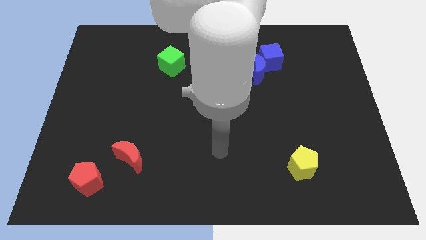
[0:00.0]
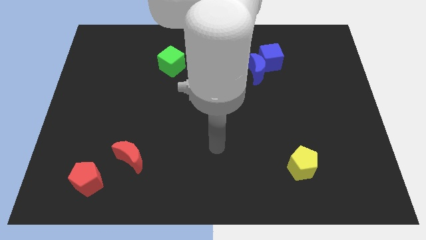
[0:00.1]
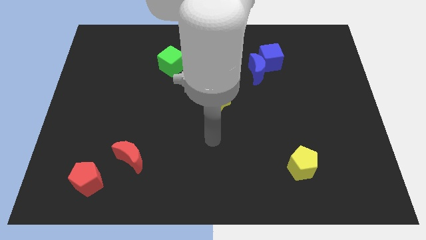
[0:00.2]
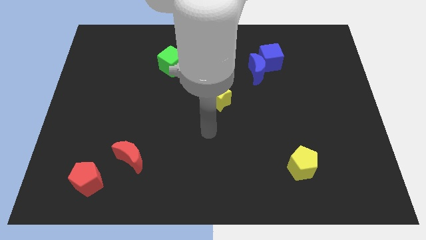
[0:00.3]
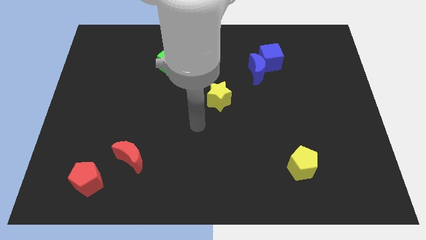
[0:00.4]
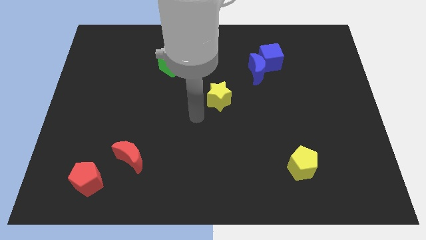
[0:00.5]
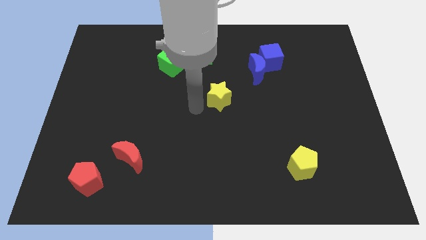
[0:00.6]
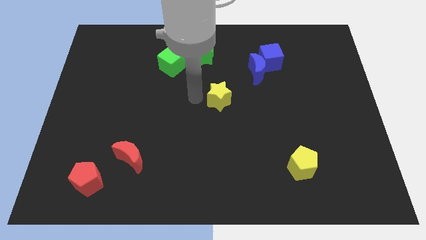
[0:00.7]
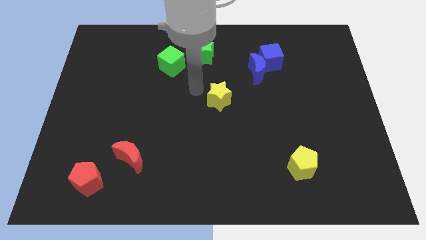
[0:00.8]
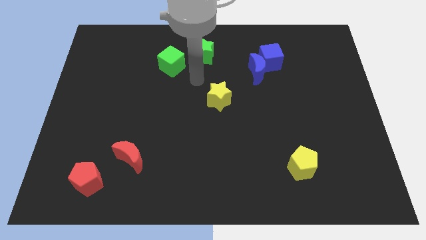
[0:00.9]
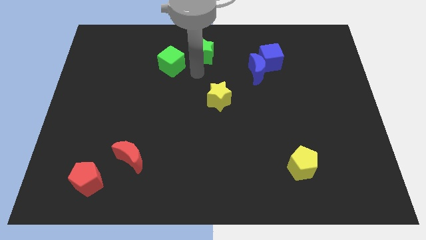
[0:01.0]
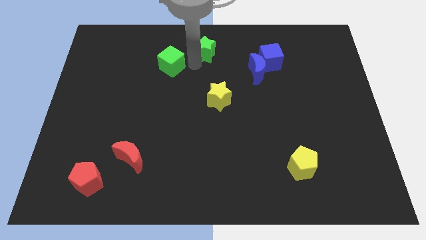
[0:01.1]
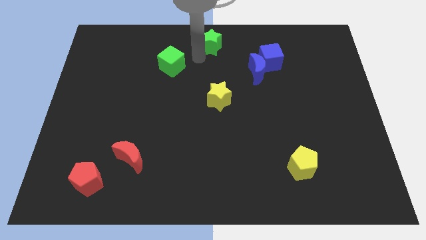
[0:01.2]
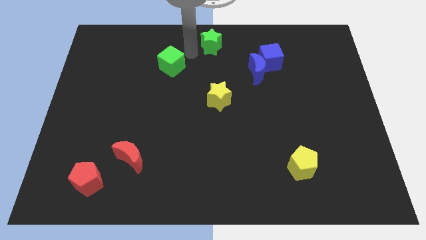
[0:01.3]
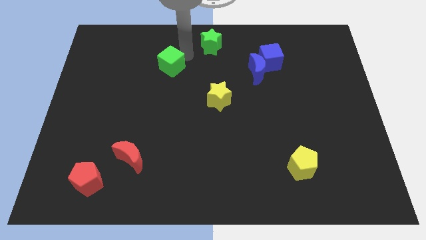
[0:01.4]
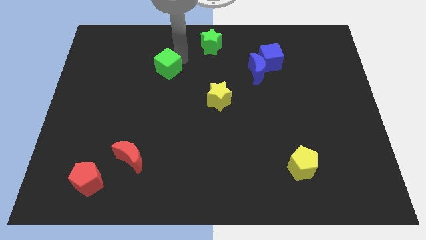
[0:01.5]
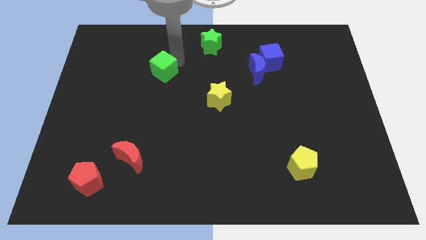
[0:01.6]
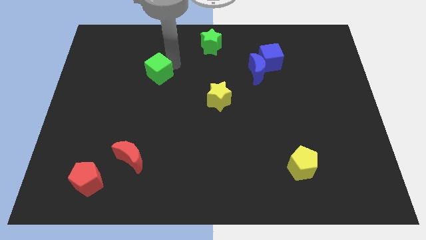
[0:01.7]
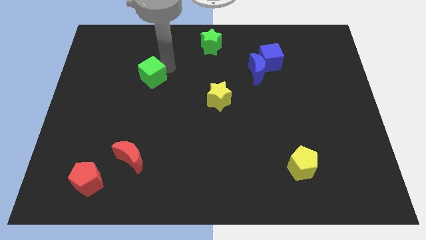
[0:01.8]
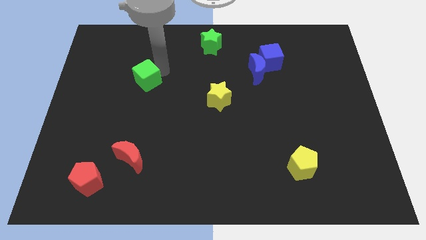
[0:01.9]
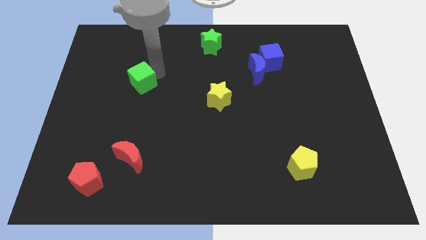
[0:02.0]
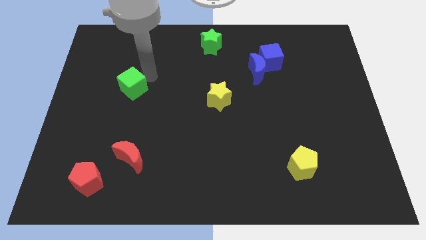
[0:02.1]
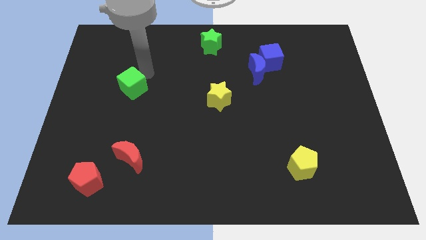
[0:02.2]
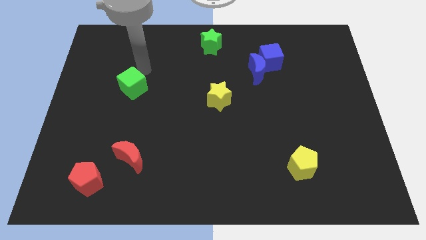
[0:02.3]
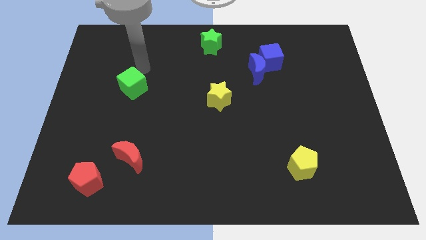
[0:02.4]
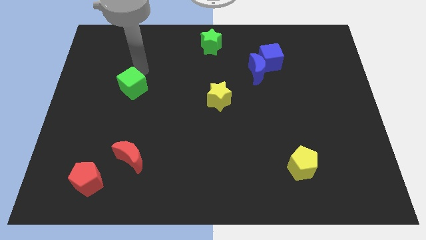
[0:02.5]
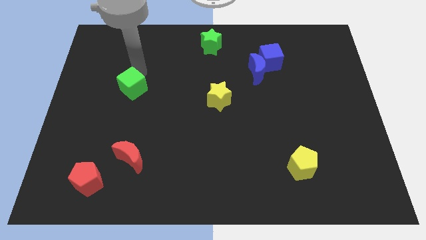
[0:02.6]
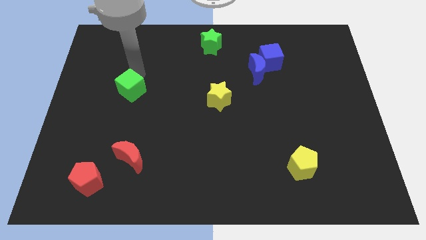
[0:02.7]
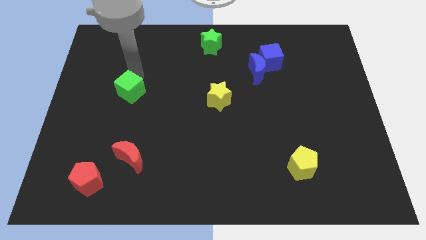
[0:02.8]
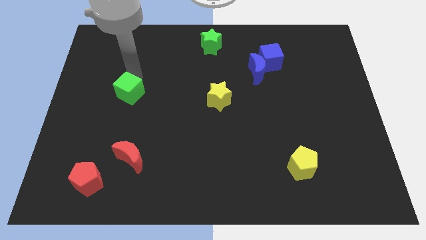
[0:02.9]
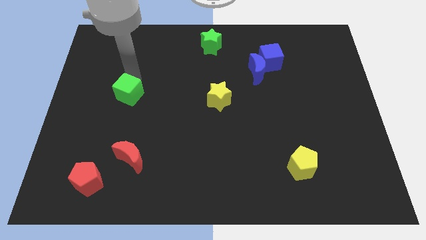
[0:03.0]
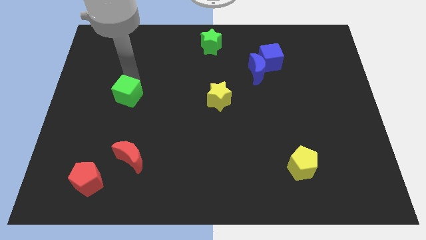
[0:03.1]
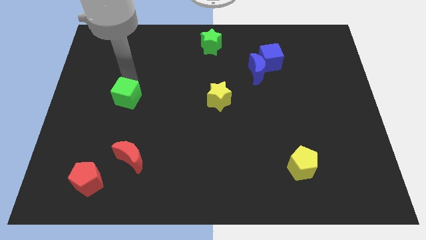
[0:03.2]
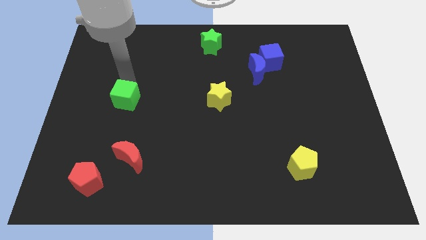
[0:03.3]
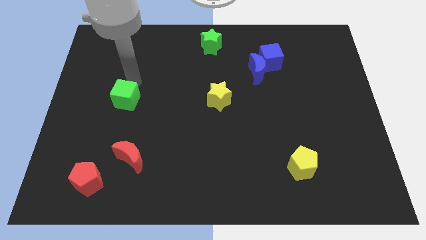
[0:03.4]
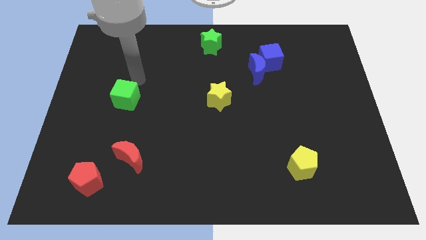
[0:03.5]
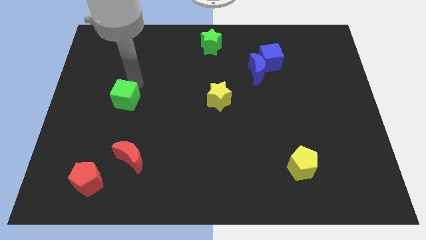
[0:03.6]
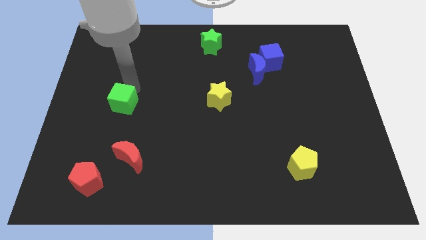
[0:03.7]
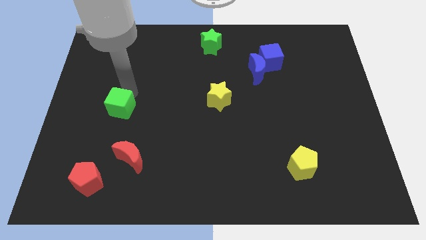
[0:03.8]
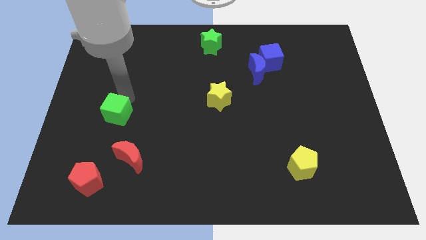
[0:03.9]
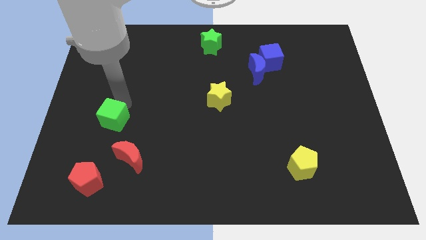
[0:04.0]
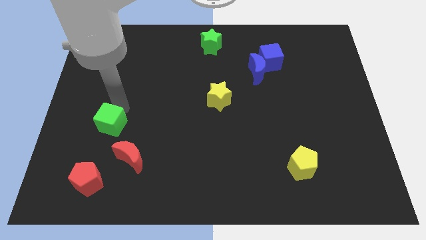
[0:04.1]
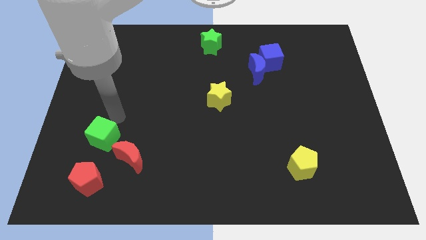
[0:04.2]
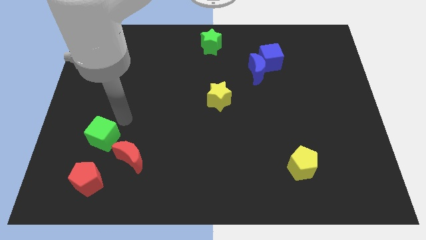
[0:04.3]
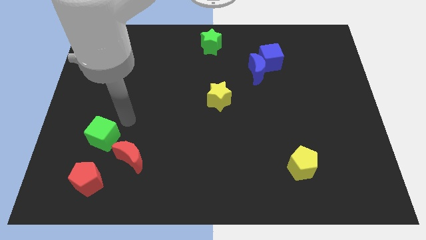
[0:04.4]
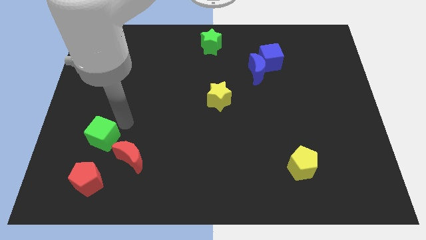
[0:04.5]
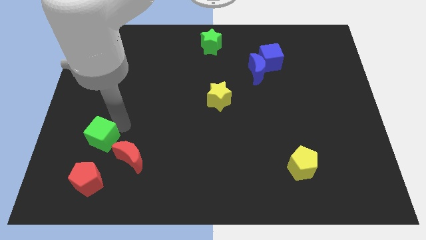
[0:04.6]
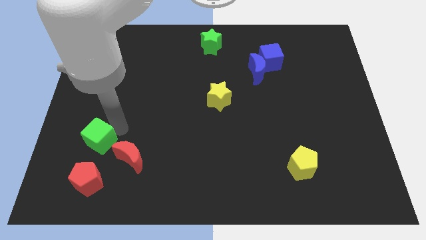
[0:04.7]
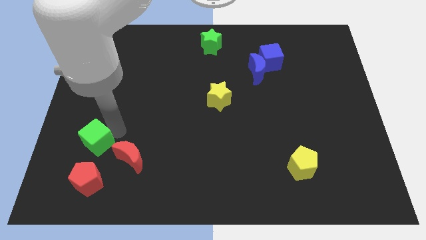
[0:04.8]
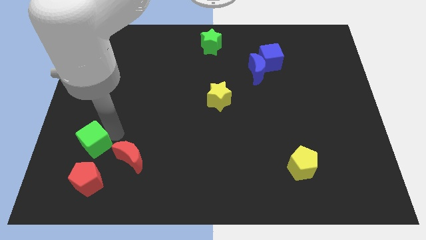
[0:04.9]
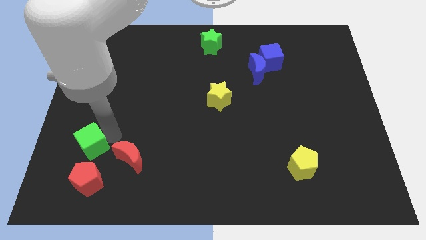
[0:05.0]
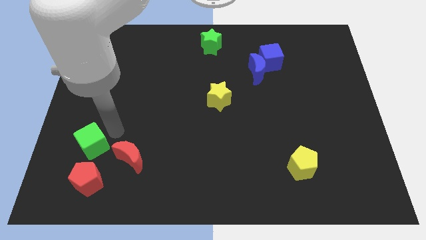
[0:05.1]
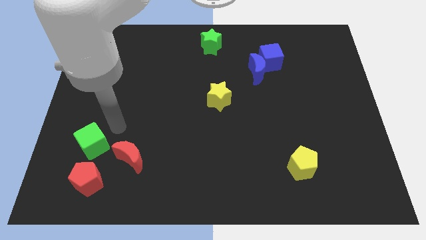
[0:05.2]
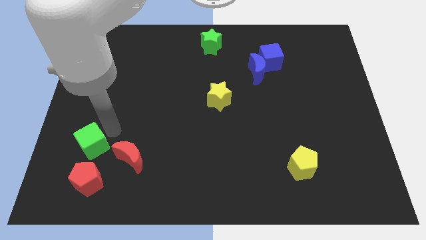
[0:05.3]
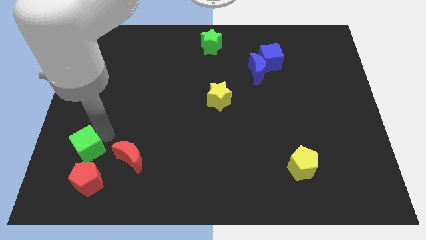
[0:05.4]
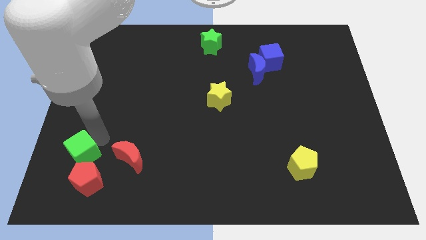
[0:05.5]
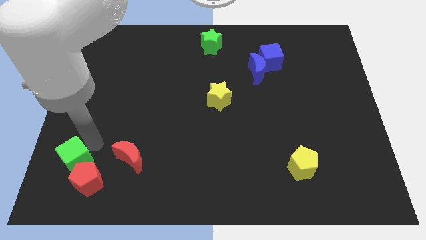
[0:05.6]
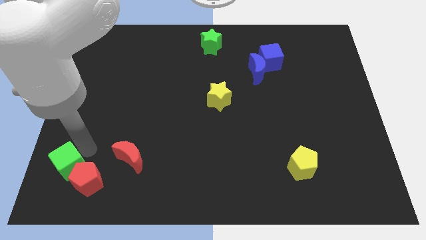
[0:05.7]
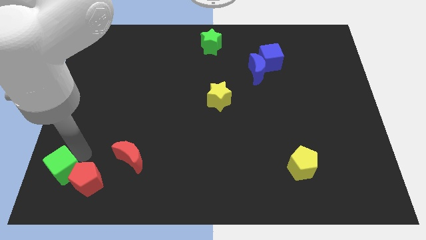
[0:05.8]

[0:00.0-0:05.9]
push the green cube to the bottom left

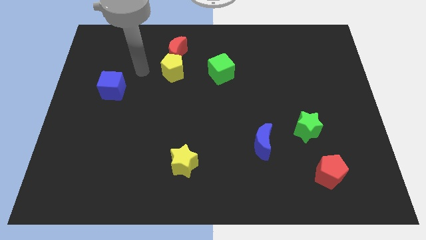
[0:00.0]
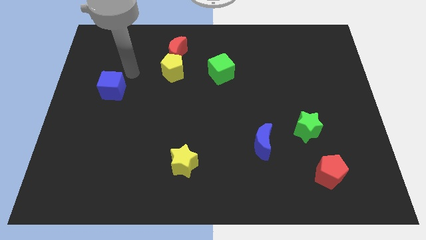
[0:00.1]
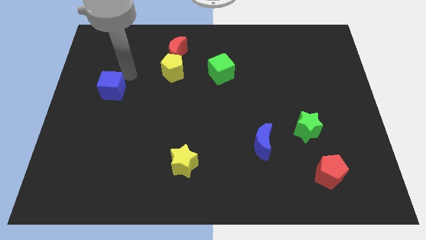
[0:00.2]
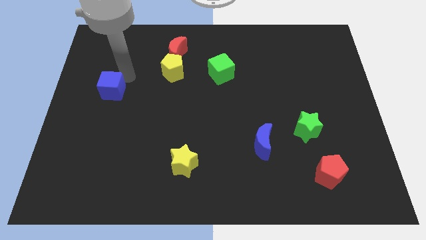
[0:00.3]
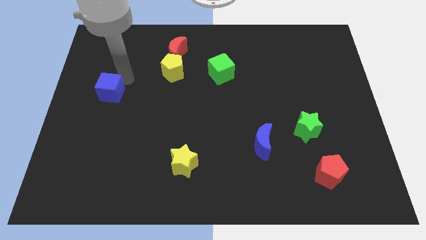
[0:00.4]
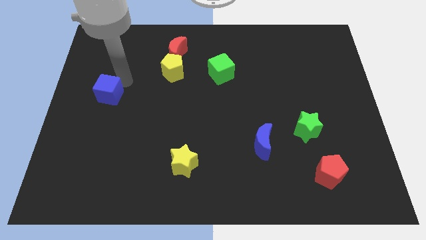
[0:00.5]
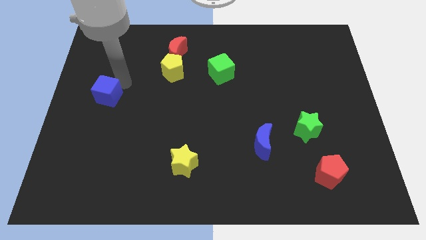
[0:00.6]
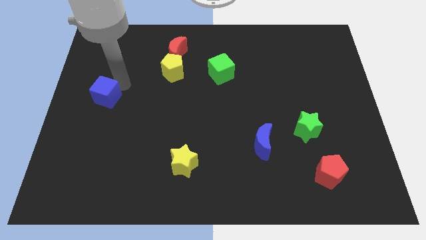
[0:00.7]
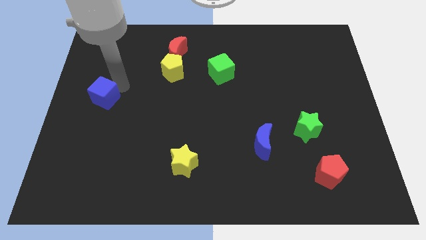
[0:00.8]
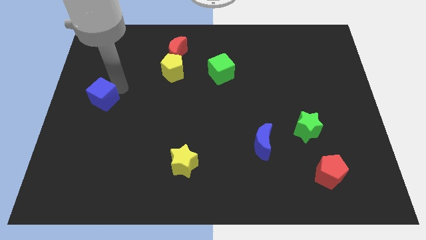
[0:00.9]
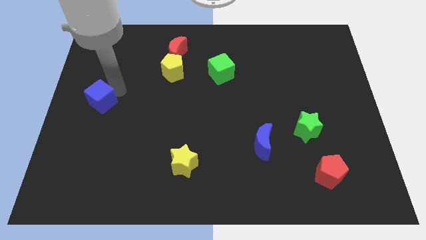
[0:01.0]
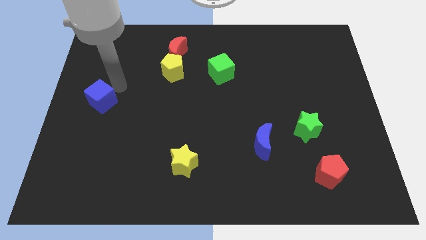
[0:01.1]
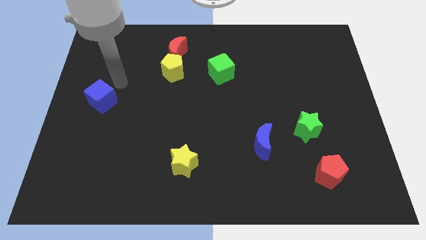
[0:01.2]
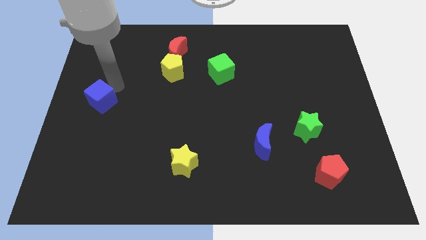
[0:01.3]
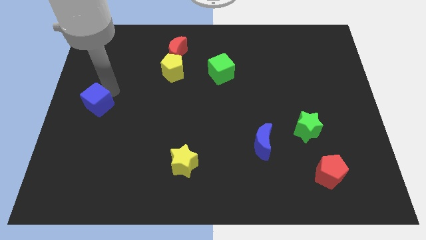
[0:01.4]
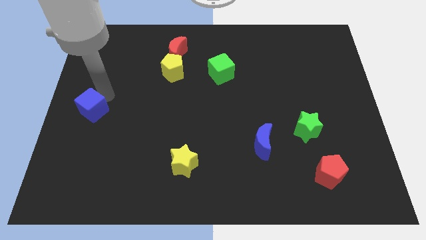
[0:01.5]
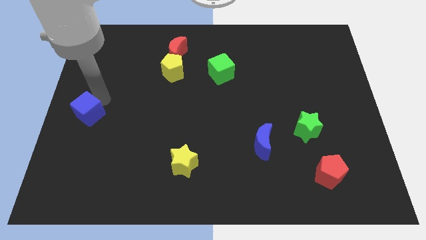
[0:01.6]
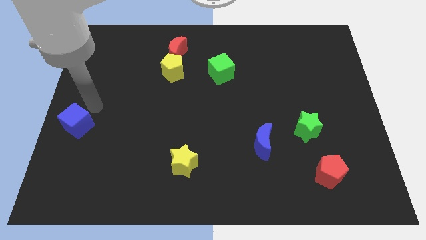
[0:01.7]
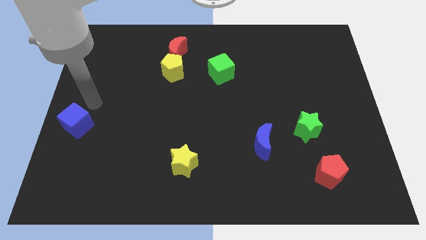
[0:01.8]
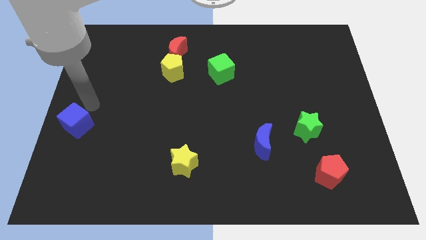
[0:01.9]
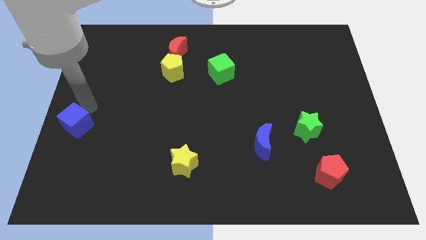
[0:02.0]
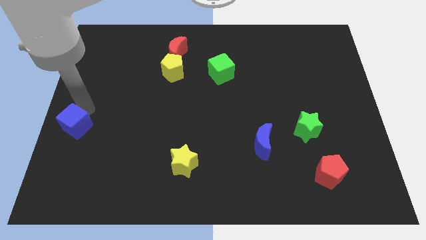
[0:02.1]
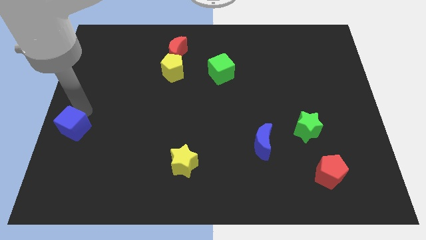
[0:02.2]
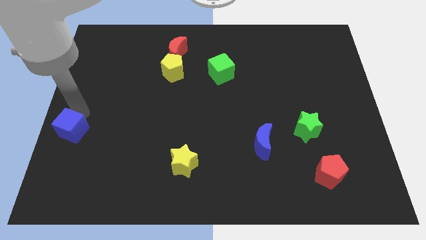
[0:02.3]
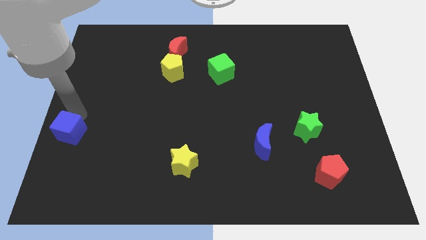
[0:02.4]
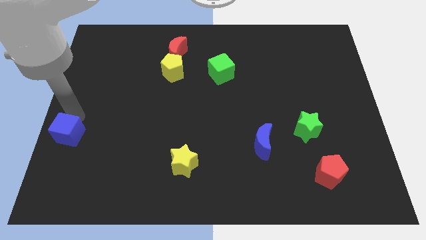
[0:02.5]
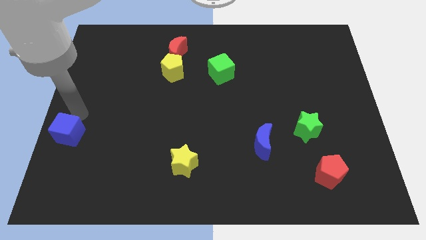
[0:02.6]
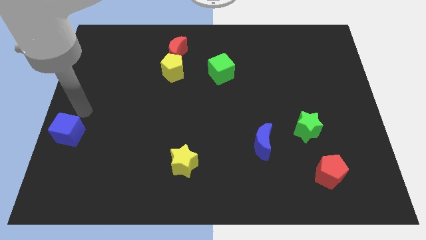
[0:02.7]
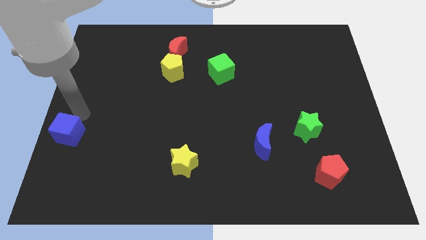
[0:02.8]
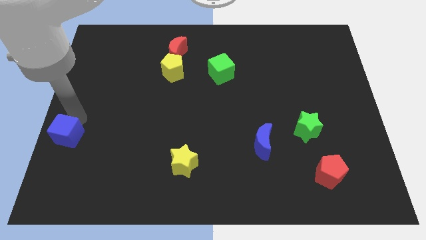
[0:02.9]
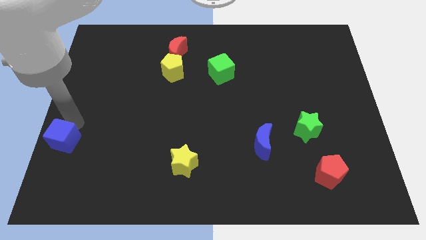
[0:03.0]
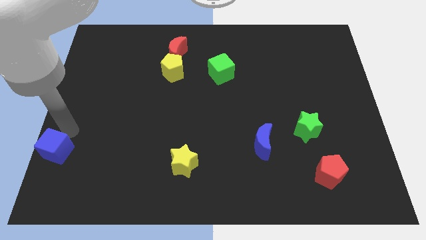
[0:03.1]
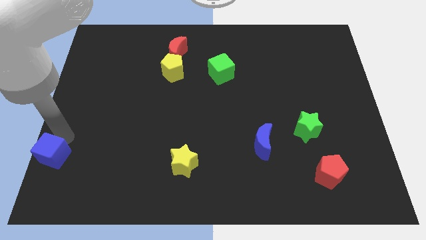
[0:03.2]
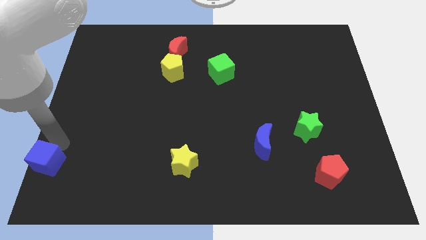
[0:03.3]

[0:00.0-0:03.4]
slide the blue cube to the bottom left
